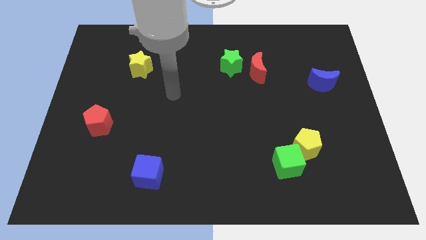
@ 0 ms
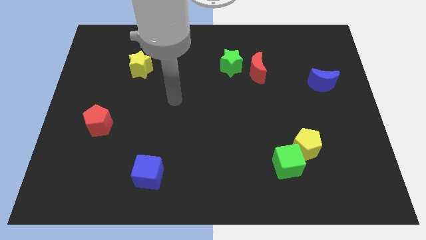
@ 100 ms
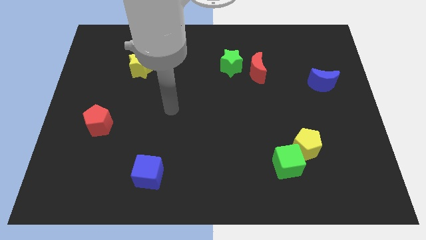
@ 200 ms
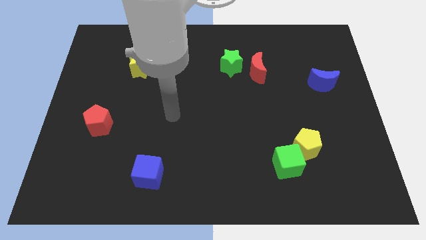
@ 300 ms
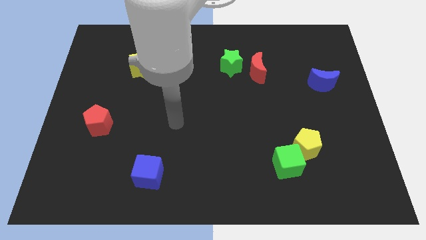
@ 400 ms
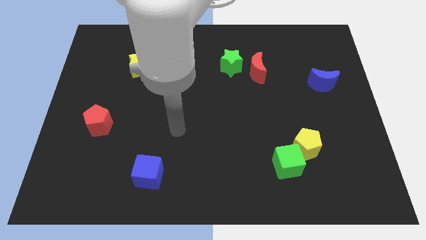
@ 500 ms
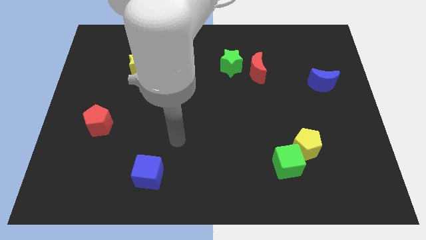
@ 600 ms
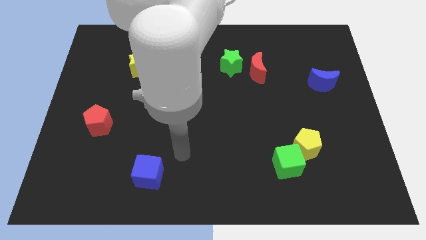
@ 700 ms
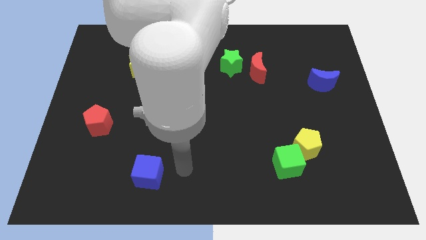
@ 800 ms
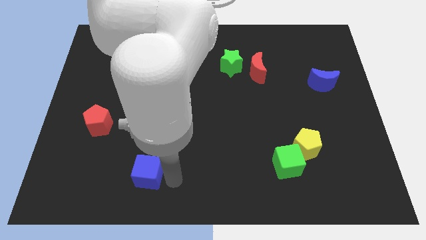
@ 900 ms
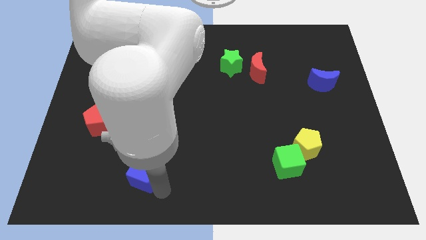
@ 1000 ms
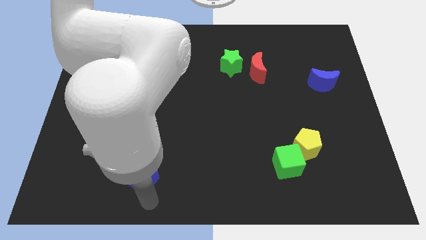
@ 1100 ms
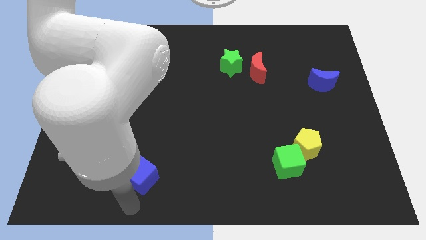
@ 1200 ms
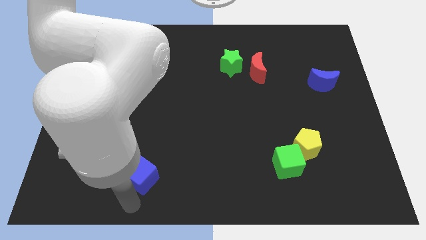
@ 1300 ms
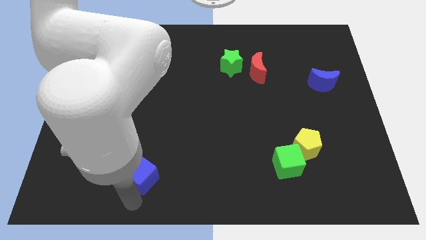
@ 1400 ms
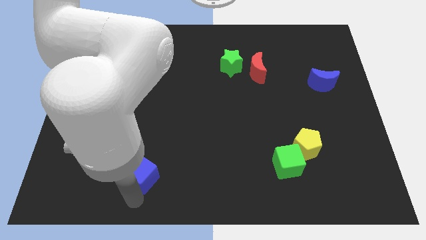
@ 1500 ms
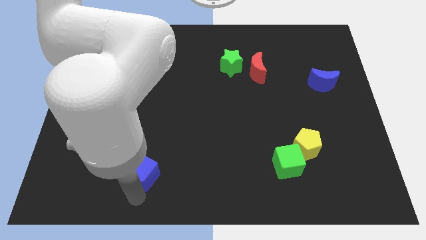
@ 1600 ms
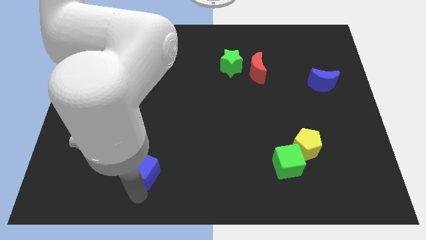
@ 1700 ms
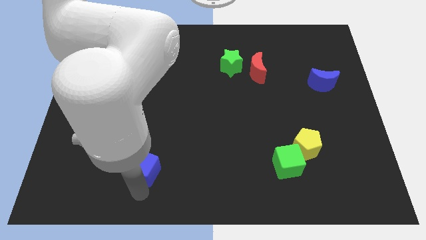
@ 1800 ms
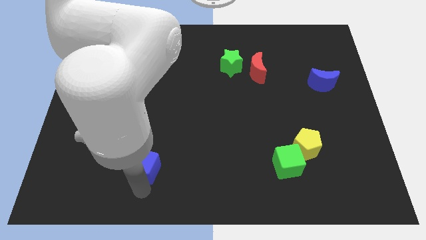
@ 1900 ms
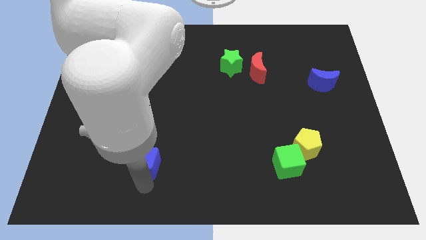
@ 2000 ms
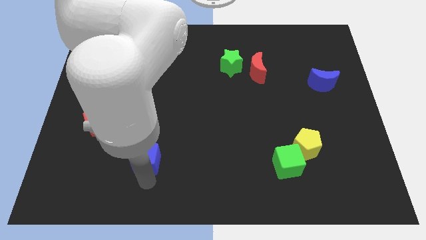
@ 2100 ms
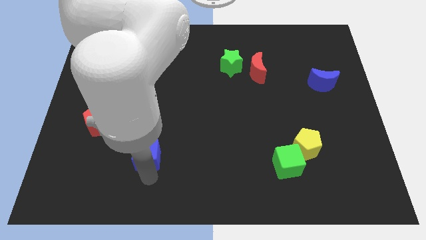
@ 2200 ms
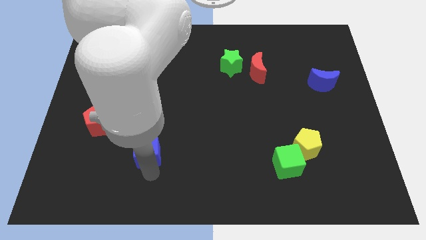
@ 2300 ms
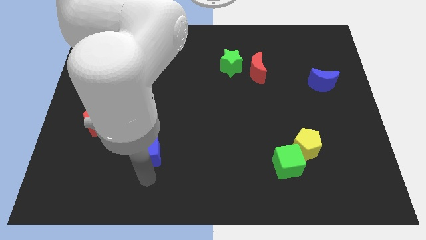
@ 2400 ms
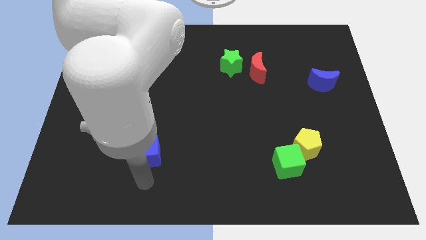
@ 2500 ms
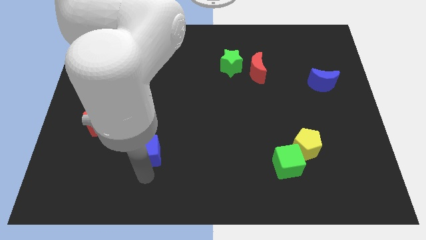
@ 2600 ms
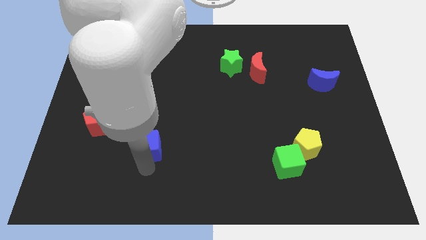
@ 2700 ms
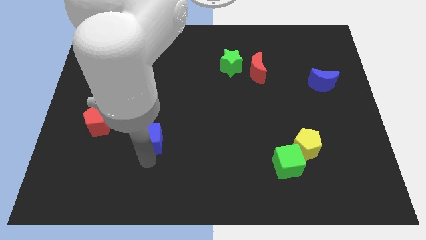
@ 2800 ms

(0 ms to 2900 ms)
slightly move the blue cube up

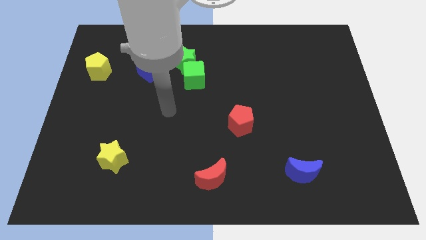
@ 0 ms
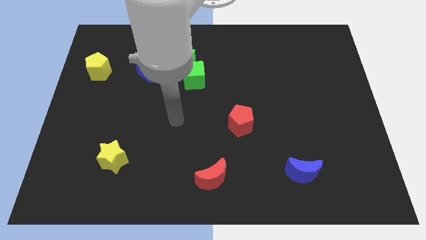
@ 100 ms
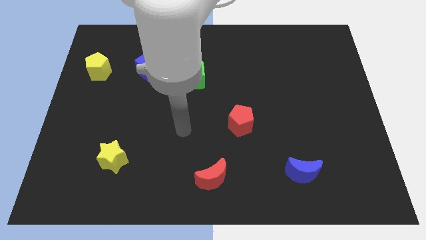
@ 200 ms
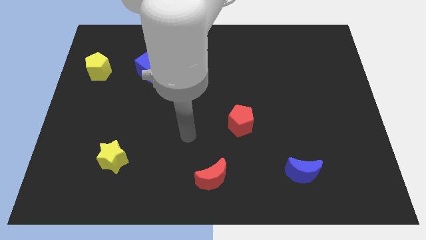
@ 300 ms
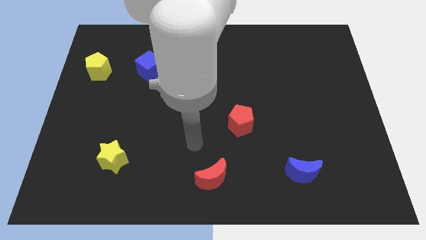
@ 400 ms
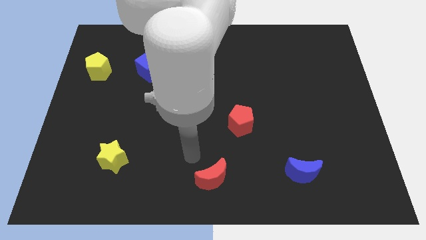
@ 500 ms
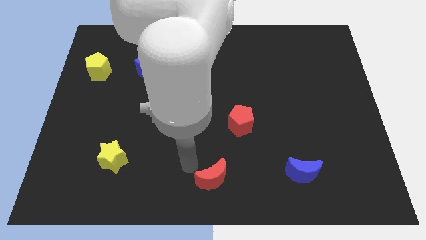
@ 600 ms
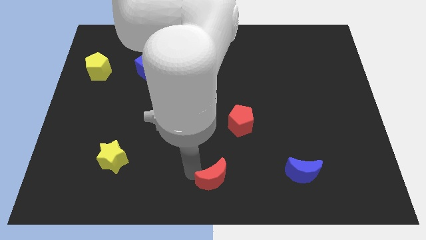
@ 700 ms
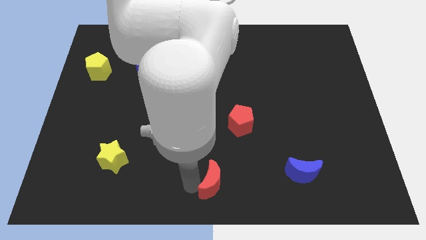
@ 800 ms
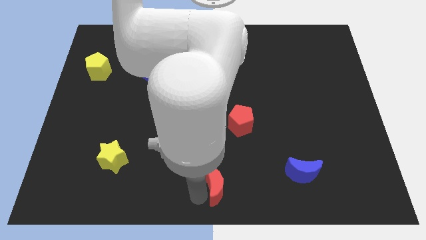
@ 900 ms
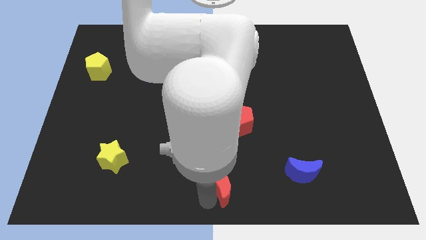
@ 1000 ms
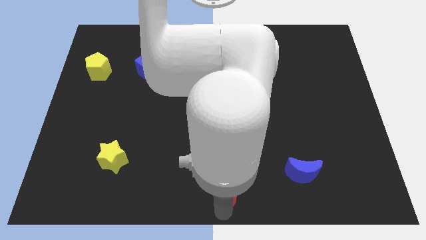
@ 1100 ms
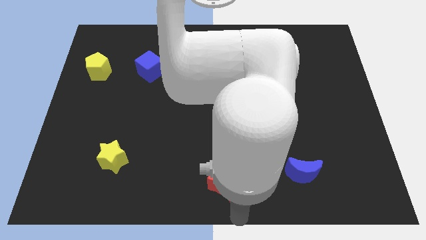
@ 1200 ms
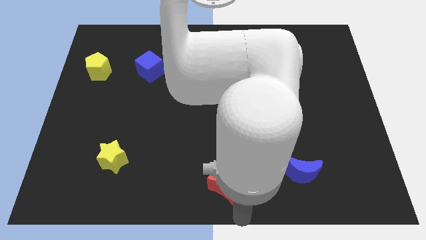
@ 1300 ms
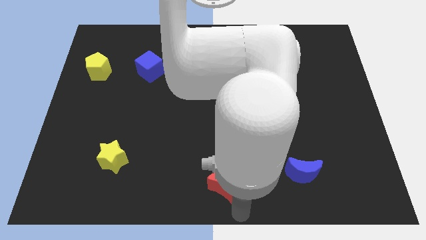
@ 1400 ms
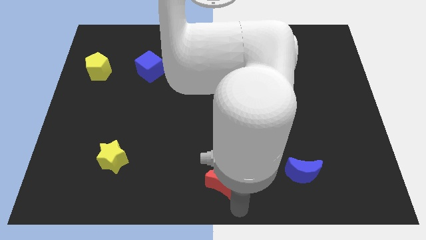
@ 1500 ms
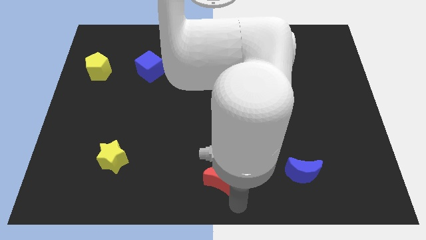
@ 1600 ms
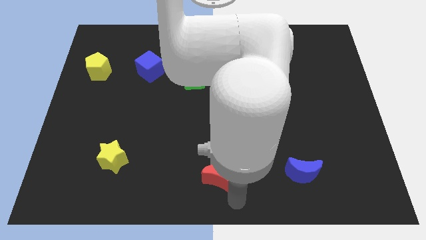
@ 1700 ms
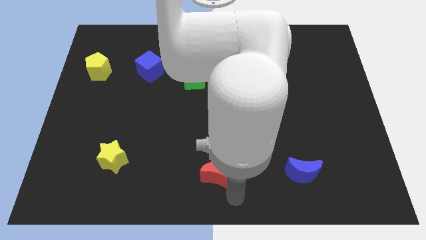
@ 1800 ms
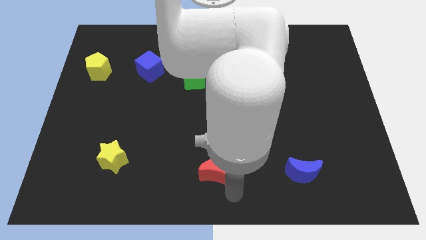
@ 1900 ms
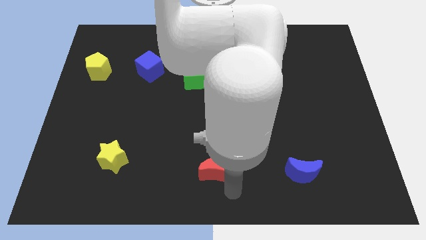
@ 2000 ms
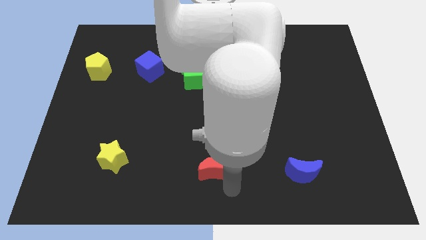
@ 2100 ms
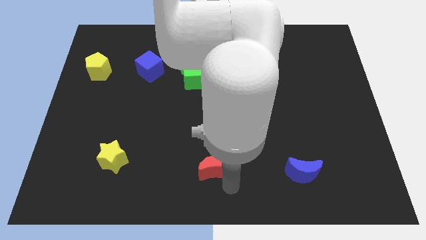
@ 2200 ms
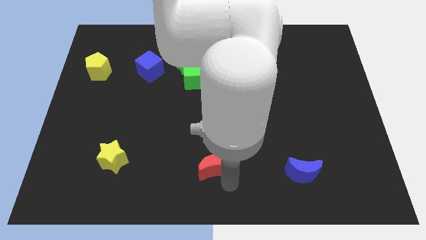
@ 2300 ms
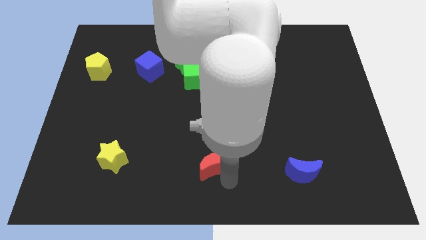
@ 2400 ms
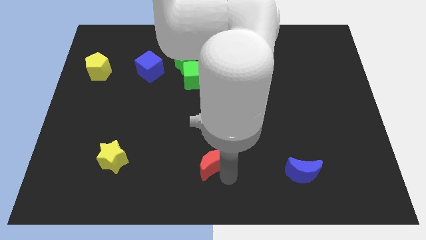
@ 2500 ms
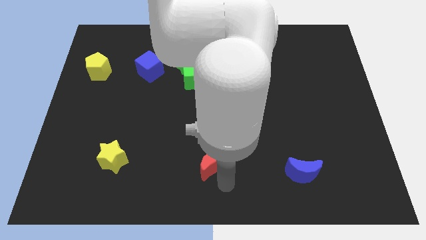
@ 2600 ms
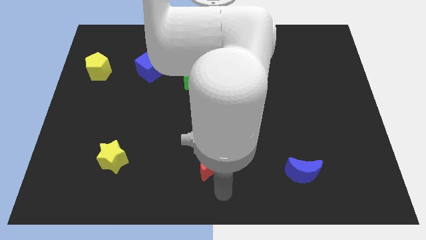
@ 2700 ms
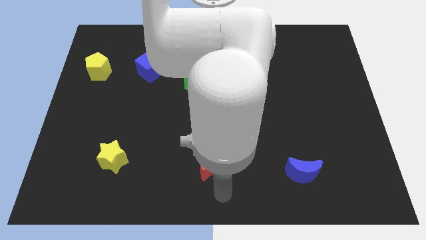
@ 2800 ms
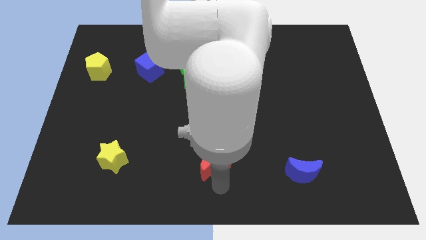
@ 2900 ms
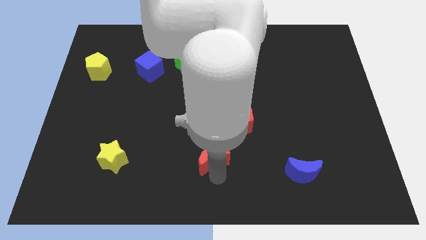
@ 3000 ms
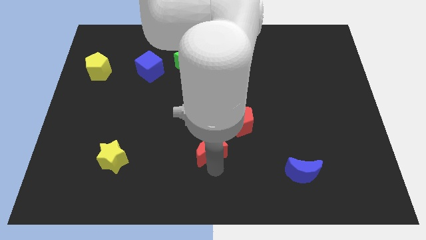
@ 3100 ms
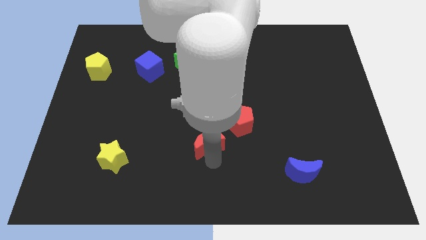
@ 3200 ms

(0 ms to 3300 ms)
move the red moon somewhat upwards

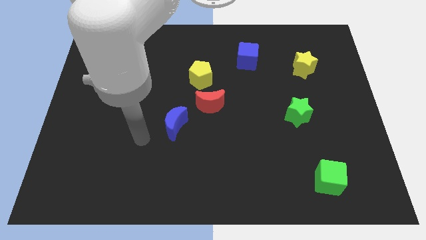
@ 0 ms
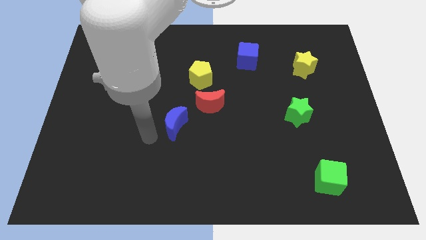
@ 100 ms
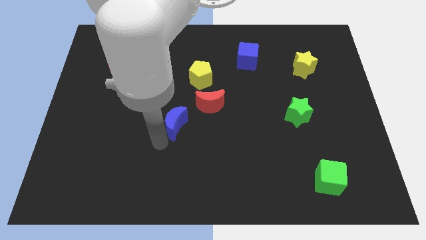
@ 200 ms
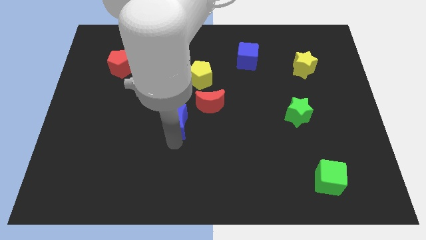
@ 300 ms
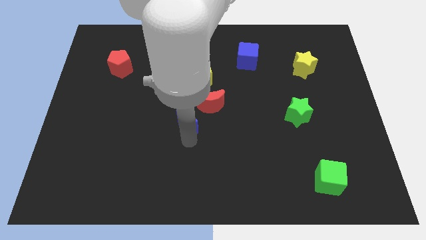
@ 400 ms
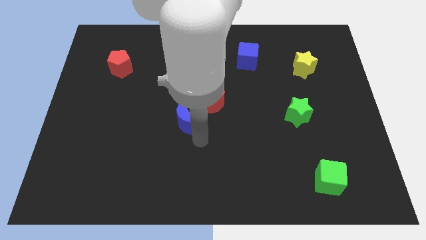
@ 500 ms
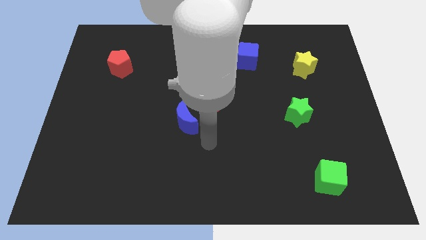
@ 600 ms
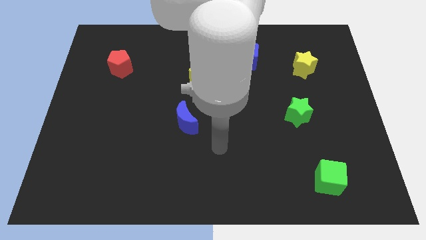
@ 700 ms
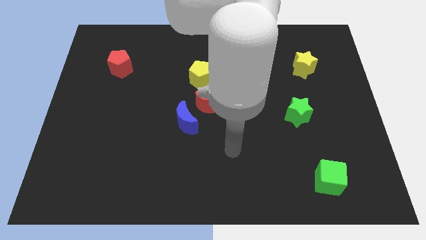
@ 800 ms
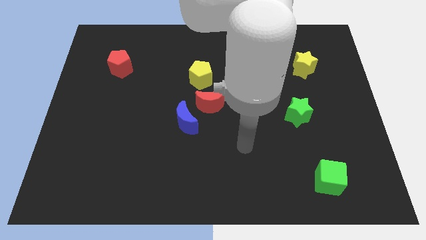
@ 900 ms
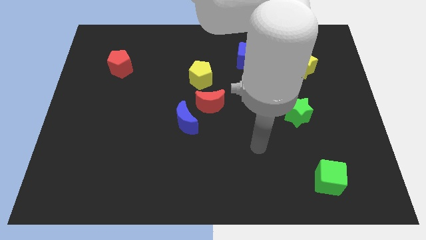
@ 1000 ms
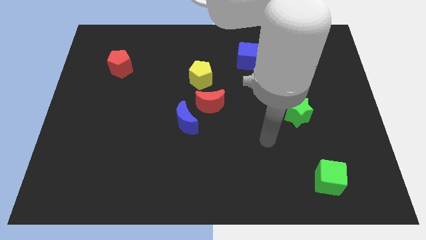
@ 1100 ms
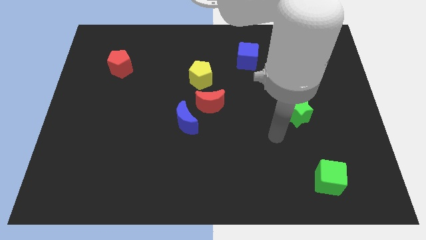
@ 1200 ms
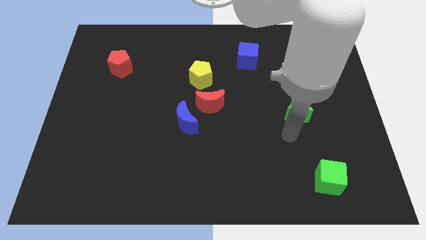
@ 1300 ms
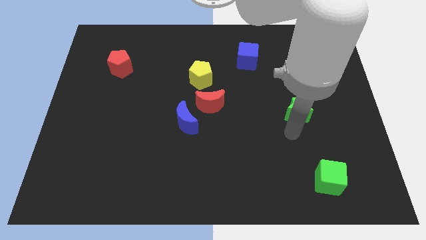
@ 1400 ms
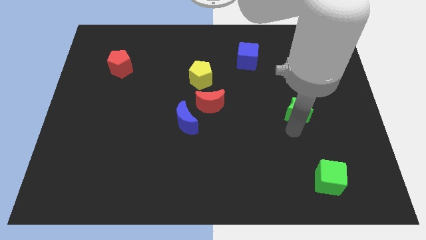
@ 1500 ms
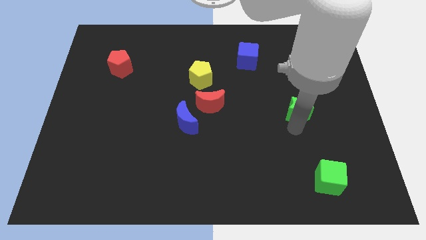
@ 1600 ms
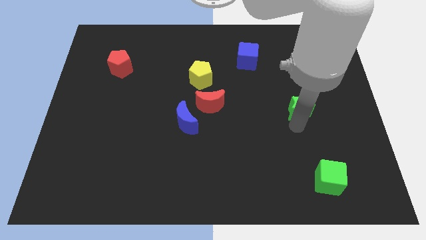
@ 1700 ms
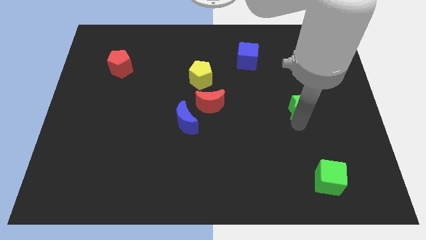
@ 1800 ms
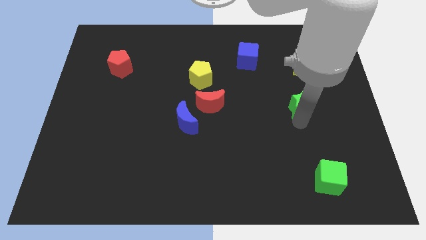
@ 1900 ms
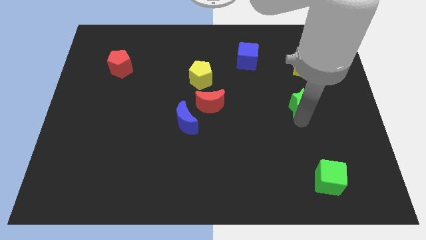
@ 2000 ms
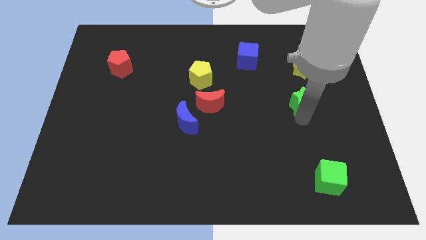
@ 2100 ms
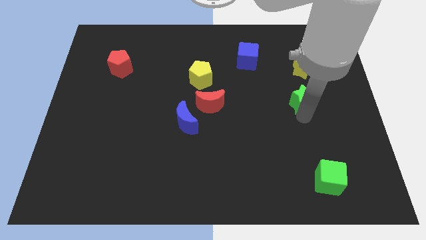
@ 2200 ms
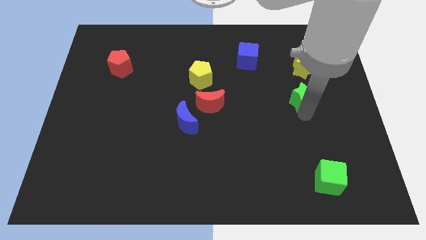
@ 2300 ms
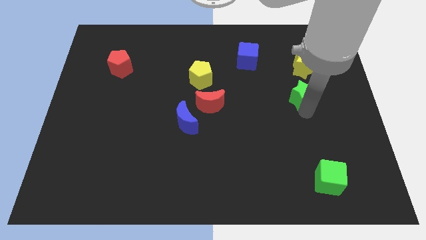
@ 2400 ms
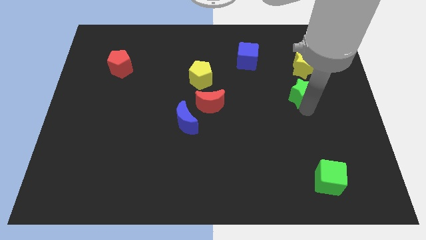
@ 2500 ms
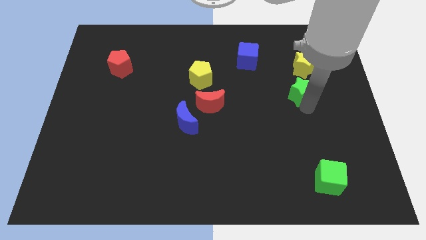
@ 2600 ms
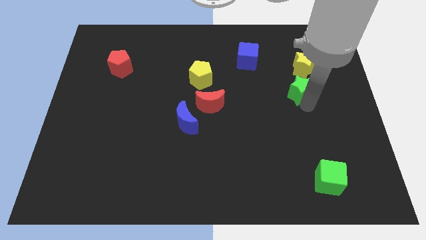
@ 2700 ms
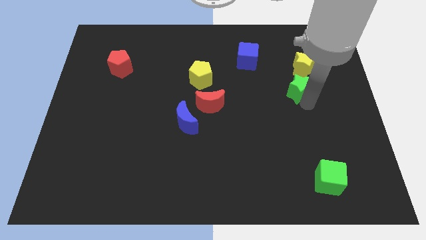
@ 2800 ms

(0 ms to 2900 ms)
slide the green star a little bit up
